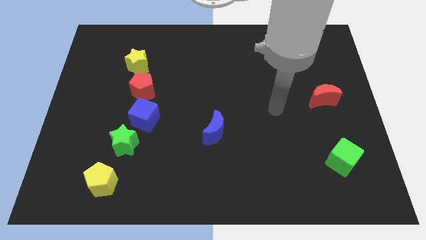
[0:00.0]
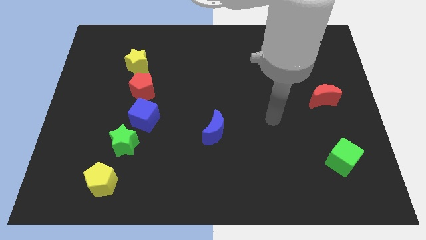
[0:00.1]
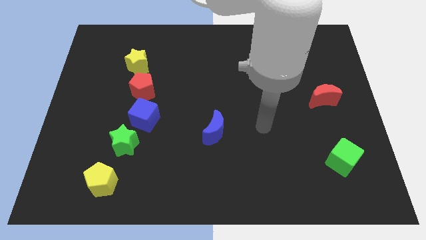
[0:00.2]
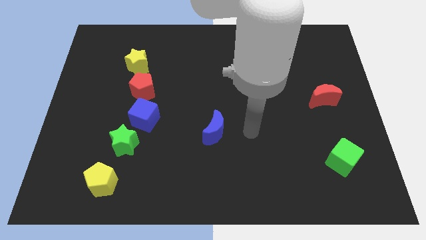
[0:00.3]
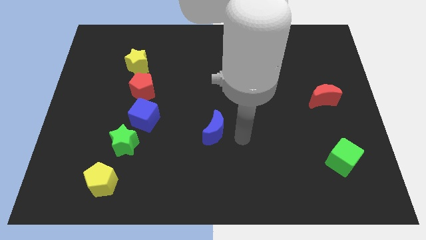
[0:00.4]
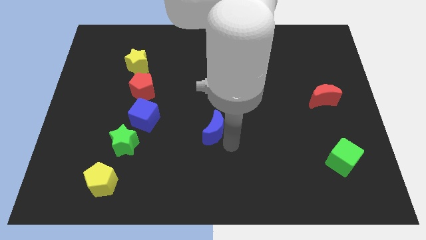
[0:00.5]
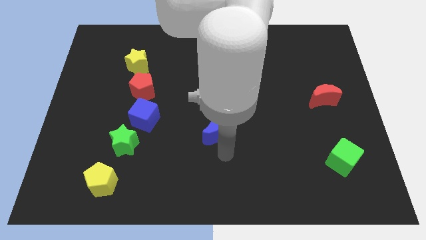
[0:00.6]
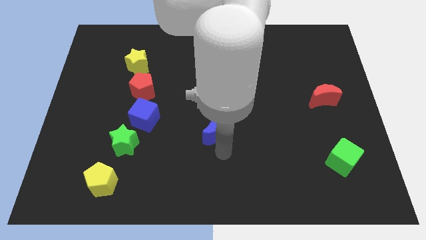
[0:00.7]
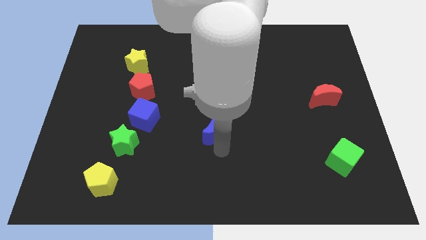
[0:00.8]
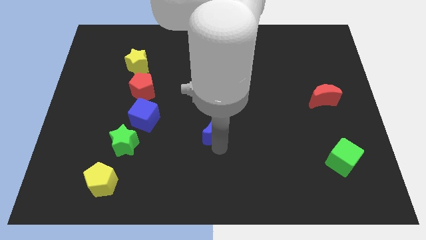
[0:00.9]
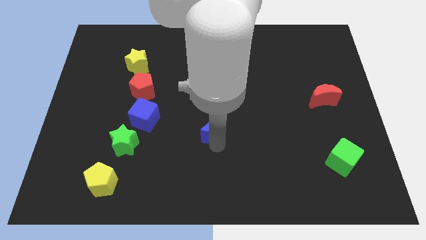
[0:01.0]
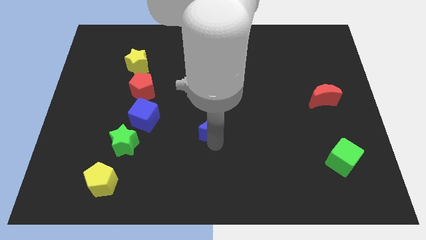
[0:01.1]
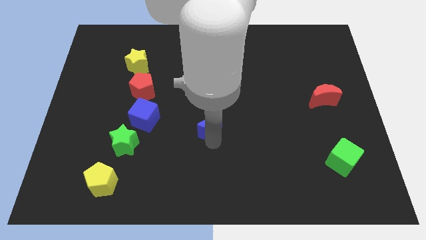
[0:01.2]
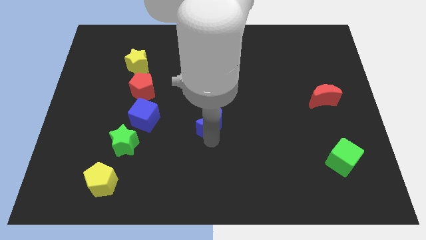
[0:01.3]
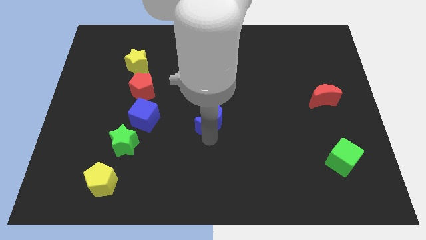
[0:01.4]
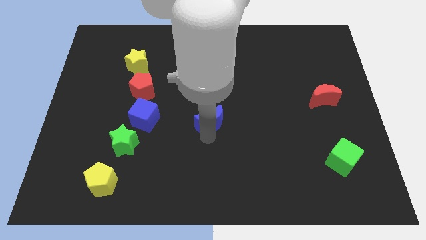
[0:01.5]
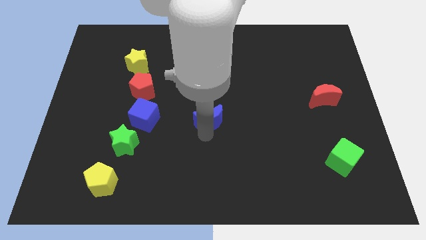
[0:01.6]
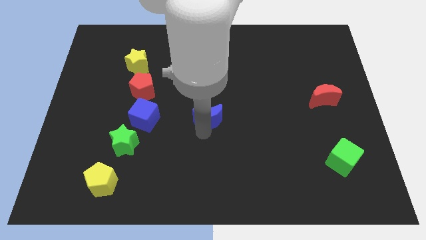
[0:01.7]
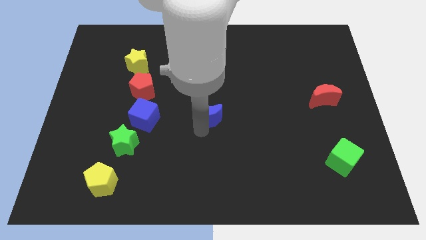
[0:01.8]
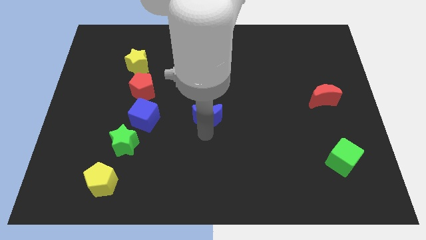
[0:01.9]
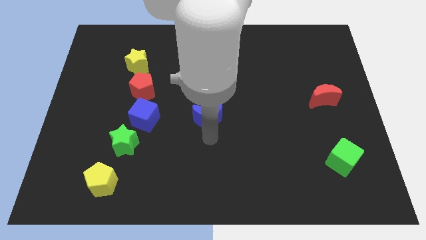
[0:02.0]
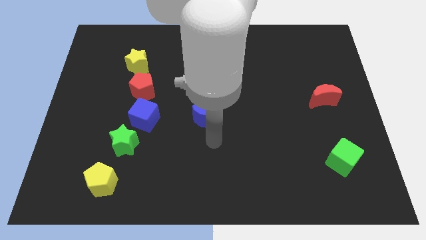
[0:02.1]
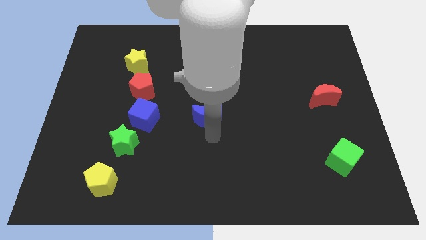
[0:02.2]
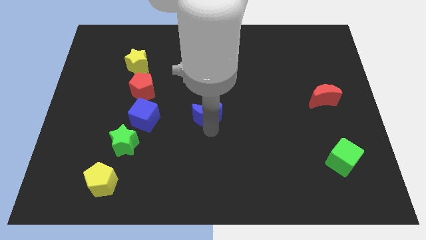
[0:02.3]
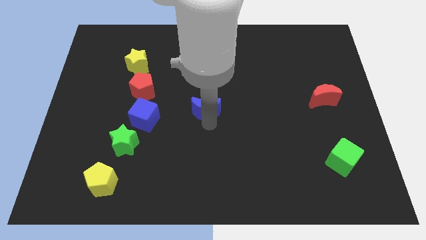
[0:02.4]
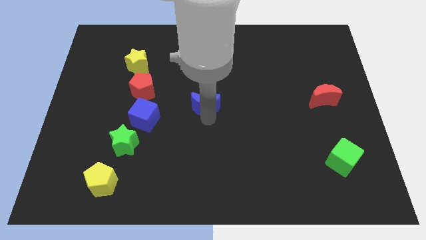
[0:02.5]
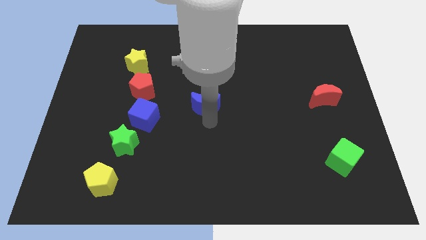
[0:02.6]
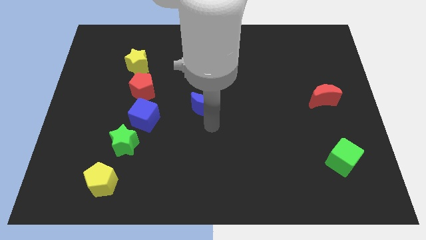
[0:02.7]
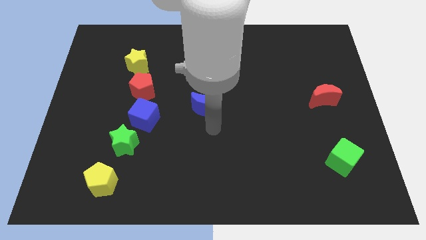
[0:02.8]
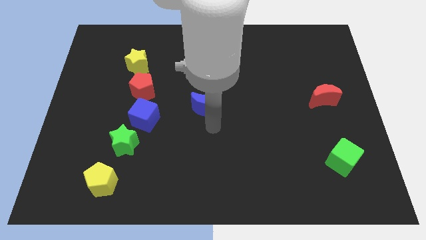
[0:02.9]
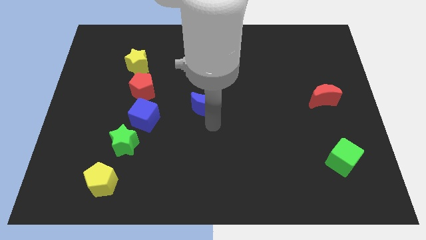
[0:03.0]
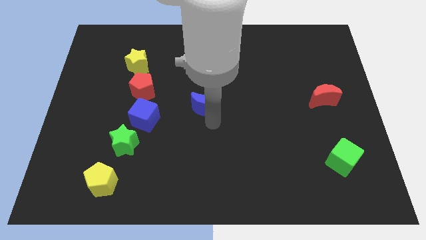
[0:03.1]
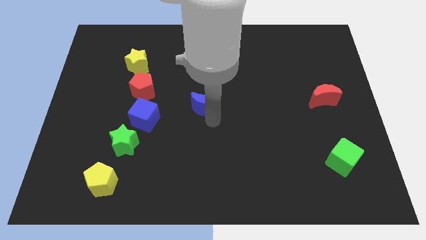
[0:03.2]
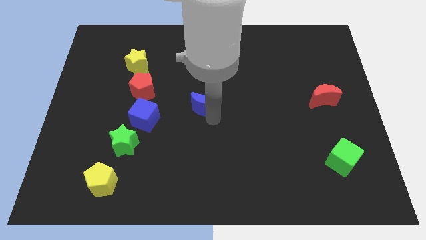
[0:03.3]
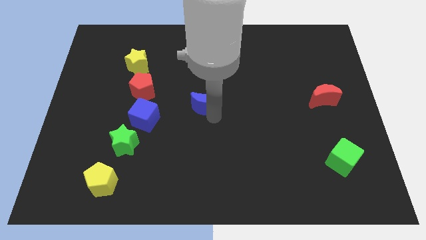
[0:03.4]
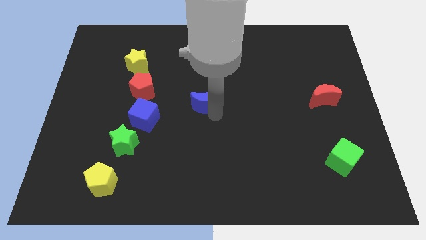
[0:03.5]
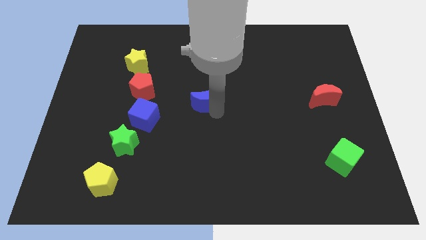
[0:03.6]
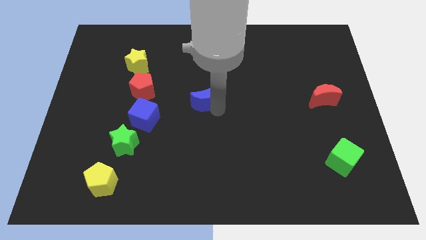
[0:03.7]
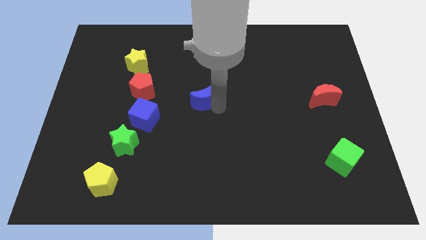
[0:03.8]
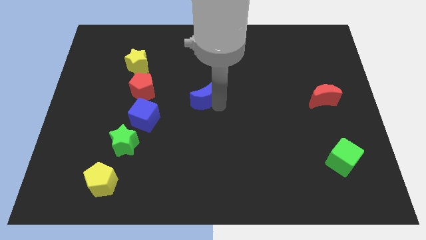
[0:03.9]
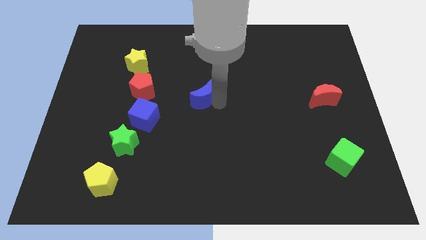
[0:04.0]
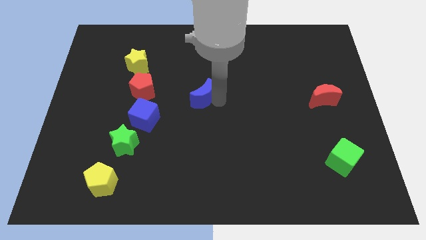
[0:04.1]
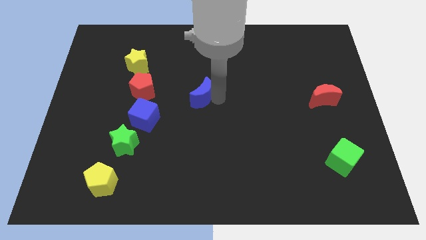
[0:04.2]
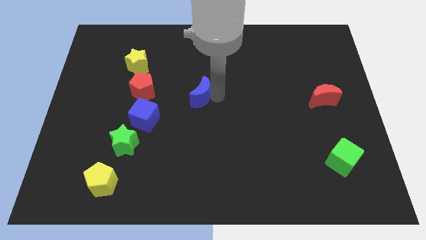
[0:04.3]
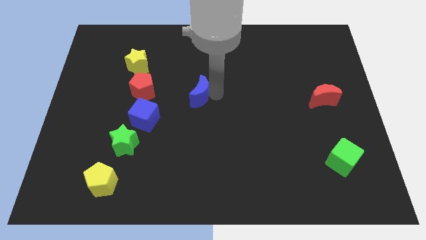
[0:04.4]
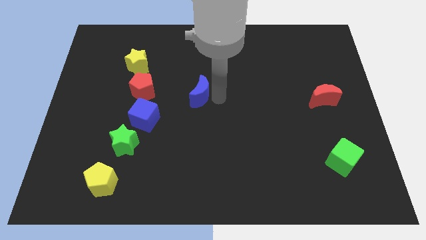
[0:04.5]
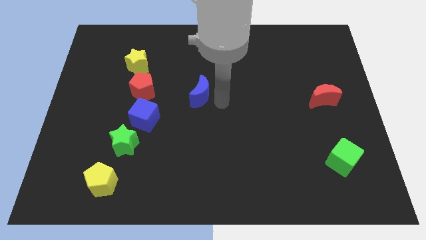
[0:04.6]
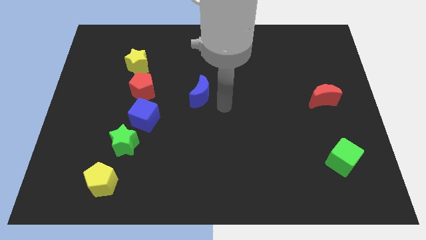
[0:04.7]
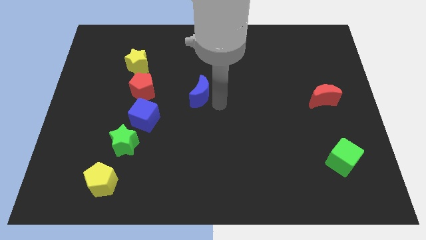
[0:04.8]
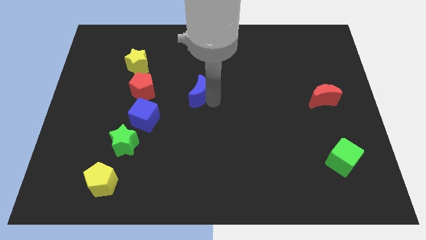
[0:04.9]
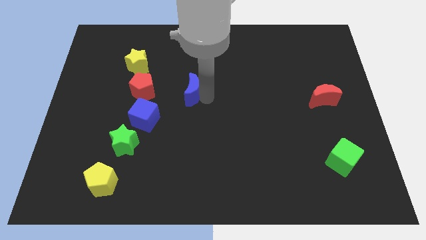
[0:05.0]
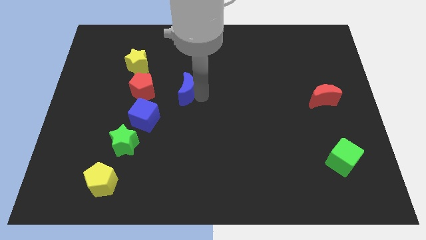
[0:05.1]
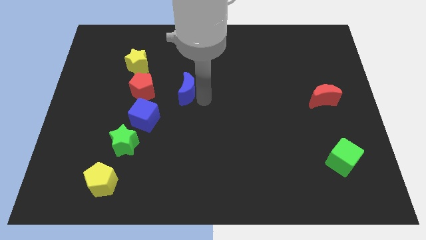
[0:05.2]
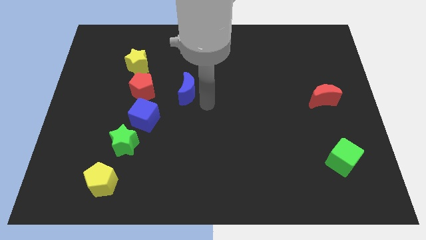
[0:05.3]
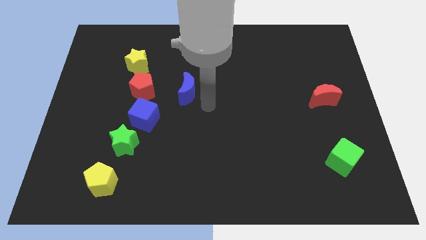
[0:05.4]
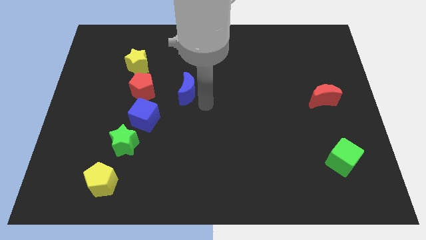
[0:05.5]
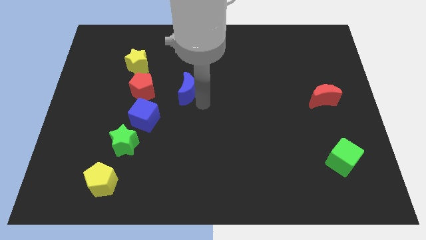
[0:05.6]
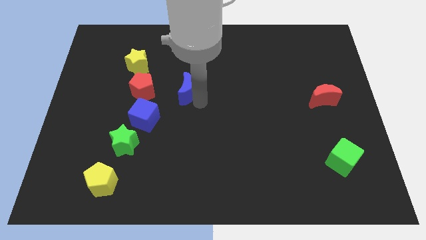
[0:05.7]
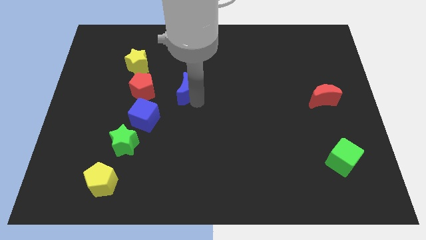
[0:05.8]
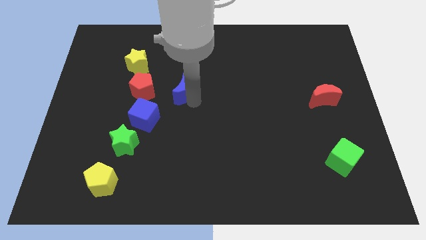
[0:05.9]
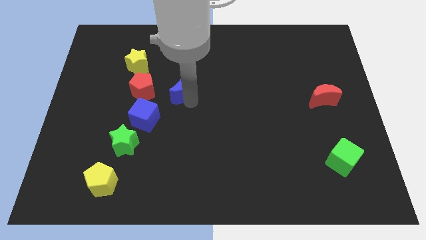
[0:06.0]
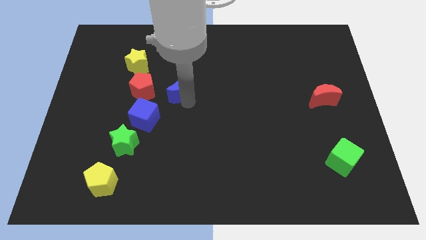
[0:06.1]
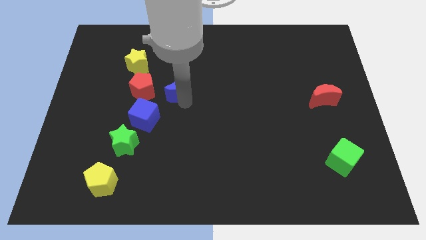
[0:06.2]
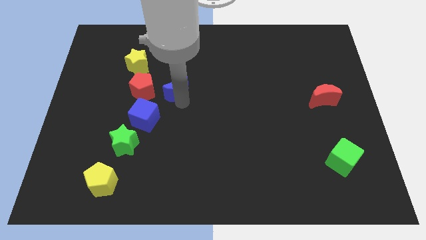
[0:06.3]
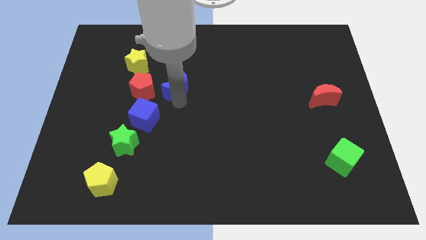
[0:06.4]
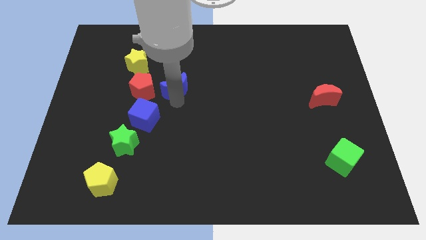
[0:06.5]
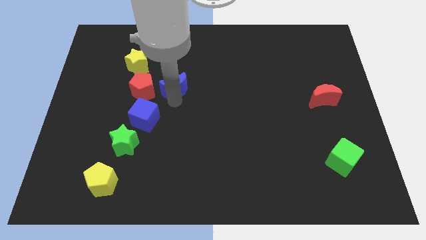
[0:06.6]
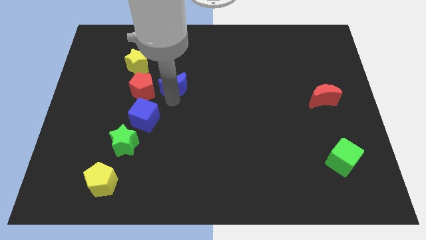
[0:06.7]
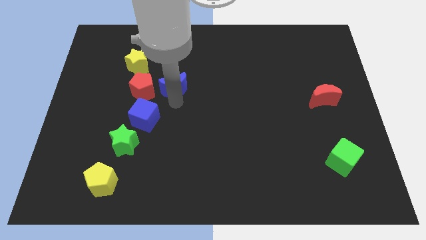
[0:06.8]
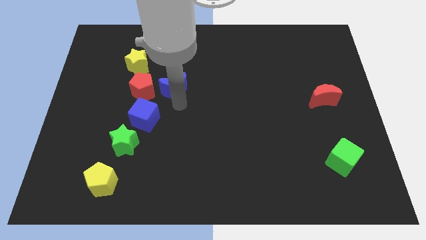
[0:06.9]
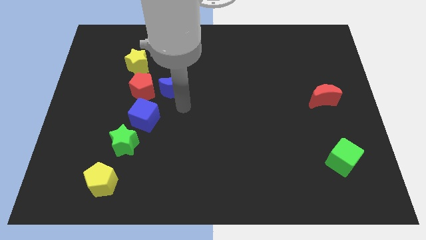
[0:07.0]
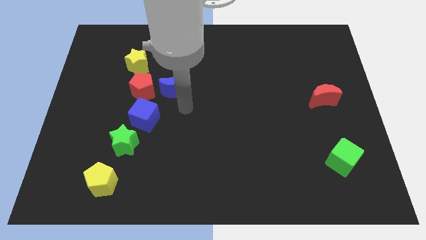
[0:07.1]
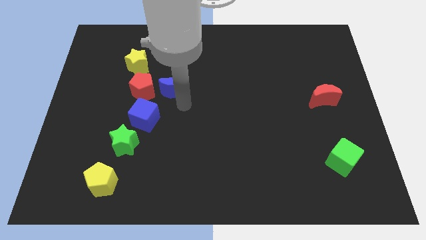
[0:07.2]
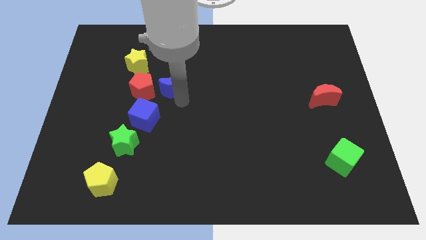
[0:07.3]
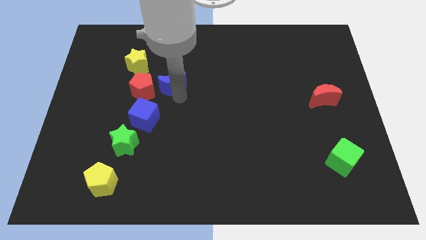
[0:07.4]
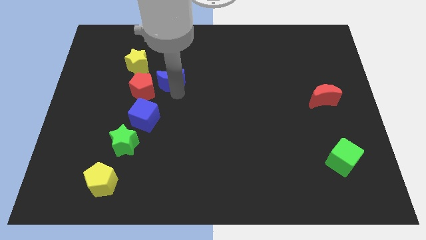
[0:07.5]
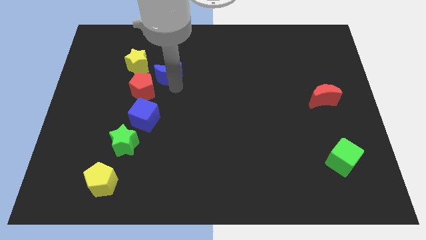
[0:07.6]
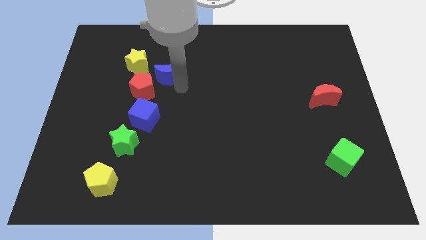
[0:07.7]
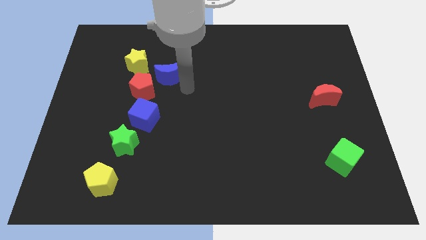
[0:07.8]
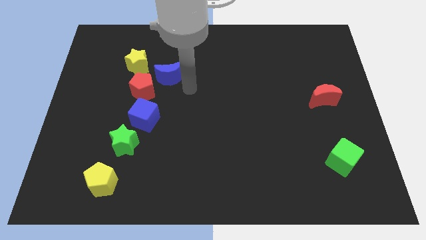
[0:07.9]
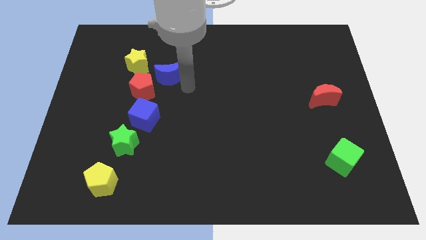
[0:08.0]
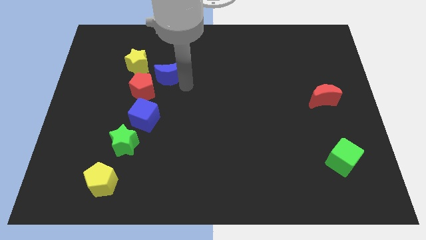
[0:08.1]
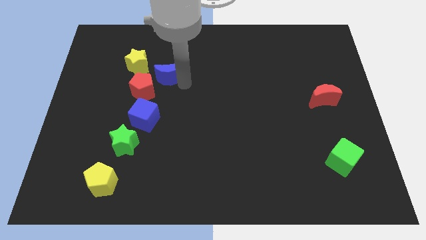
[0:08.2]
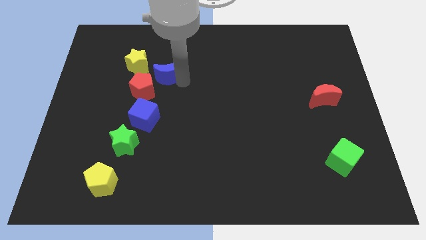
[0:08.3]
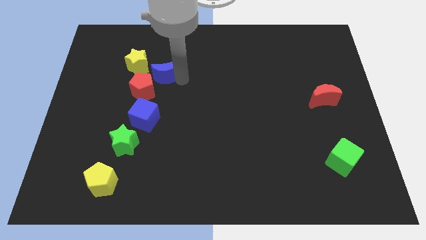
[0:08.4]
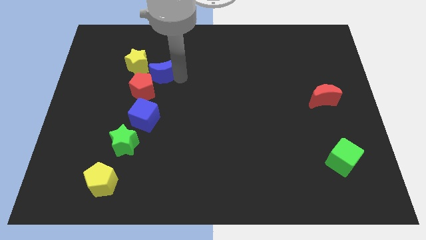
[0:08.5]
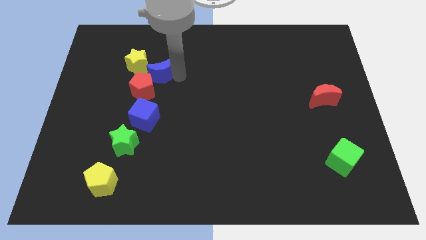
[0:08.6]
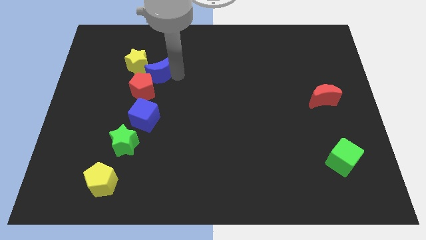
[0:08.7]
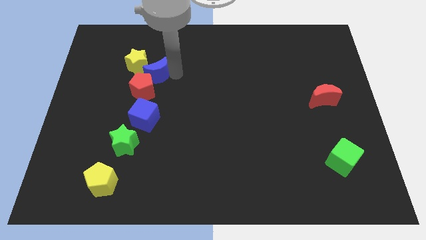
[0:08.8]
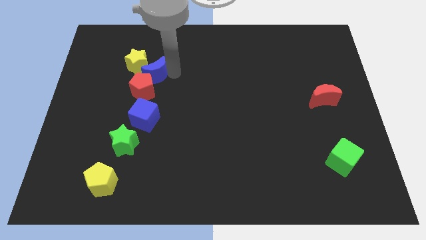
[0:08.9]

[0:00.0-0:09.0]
slide the blue moon next to the yellow star
